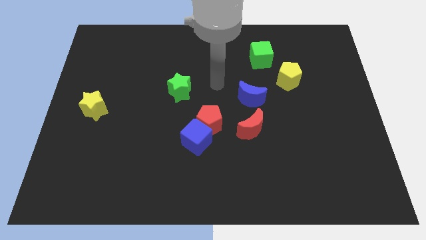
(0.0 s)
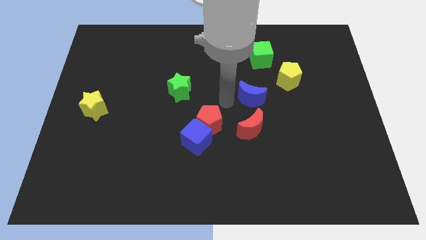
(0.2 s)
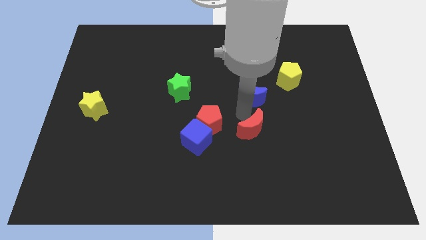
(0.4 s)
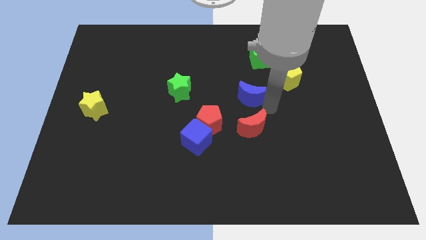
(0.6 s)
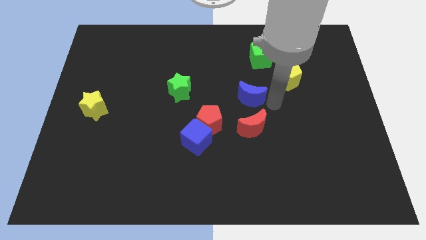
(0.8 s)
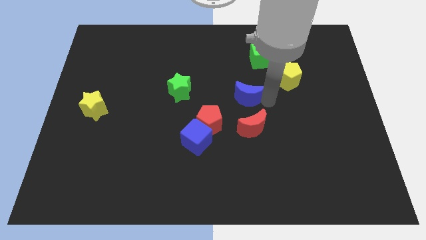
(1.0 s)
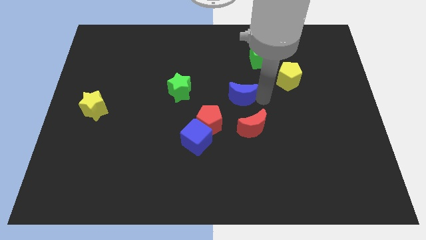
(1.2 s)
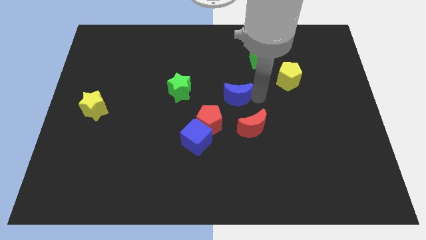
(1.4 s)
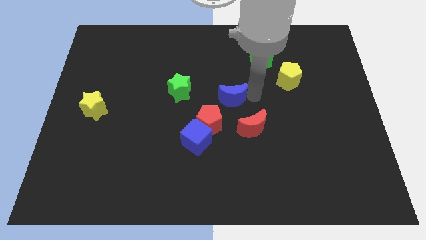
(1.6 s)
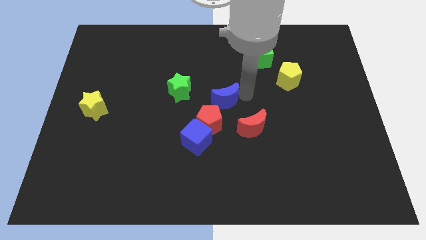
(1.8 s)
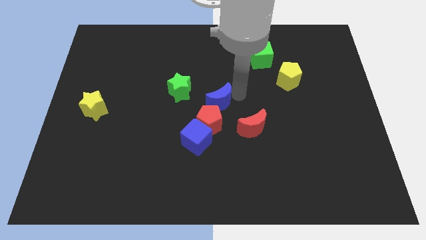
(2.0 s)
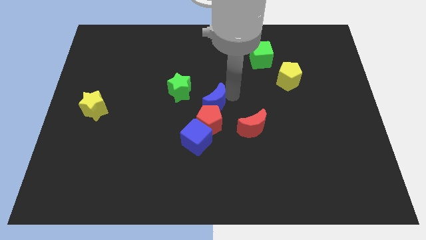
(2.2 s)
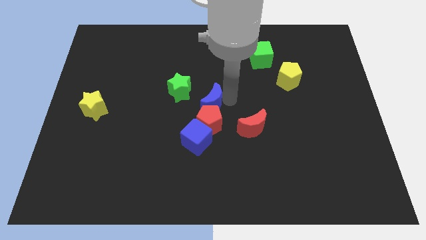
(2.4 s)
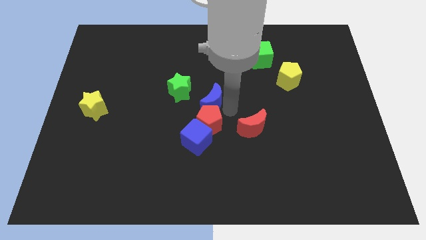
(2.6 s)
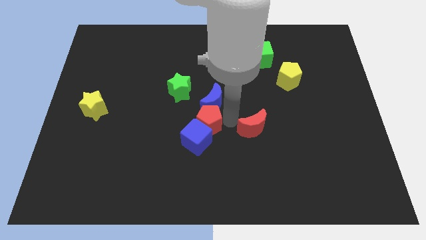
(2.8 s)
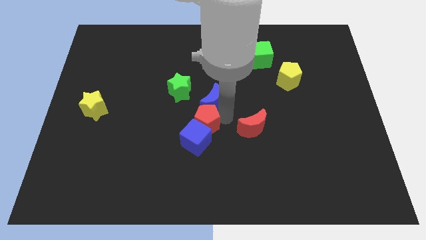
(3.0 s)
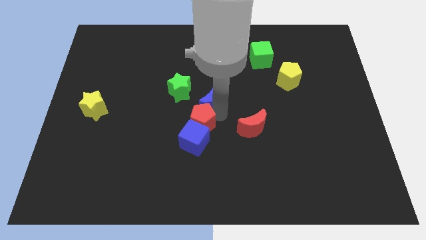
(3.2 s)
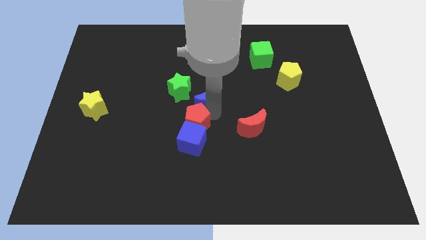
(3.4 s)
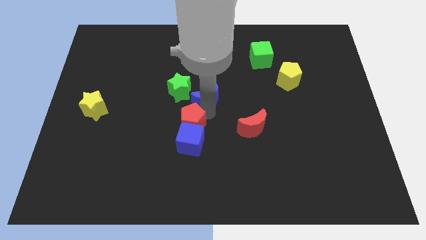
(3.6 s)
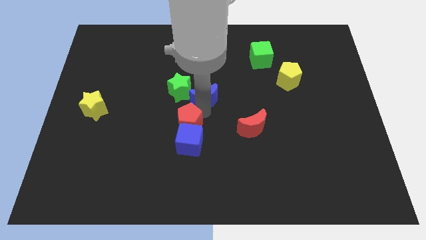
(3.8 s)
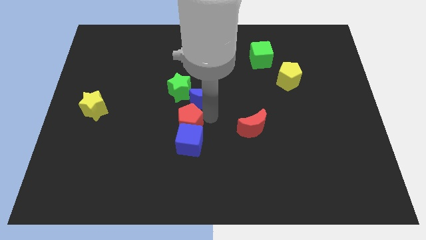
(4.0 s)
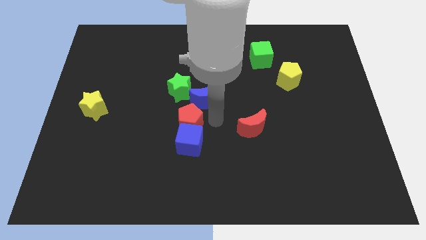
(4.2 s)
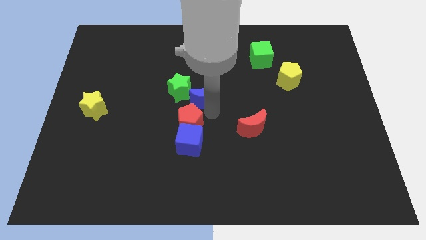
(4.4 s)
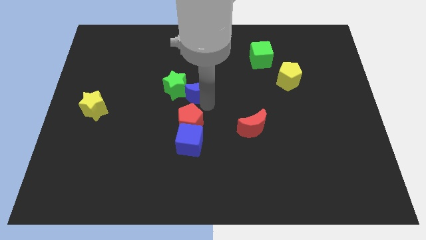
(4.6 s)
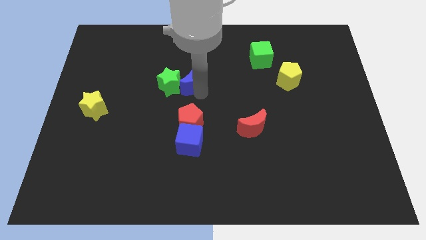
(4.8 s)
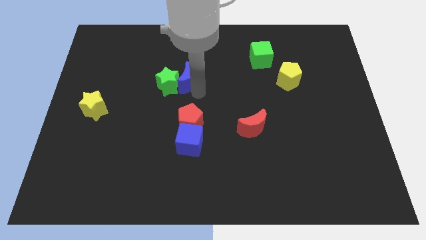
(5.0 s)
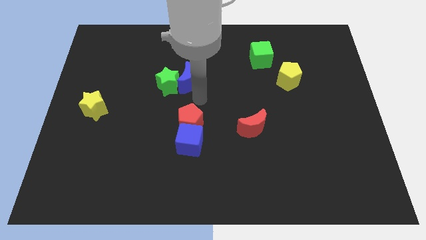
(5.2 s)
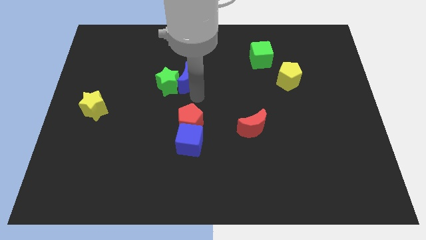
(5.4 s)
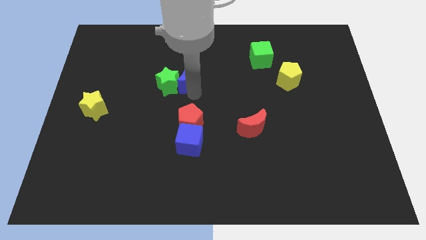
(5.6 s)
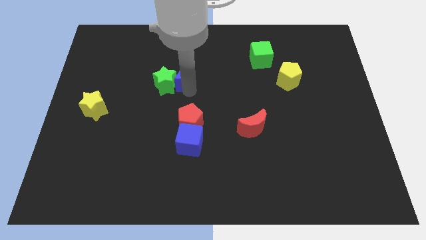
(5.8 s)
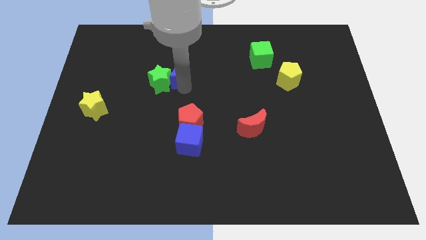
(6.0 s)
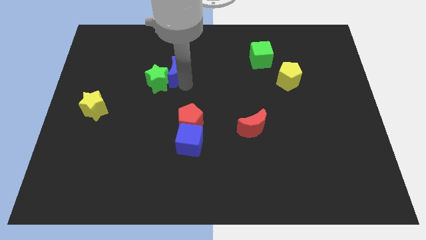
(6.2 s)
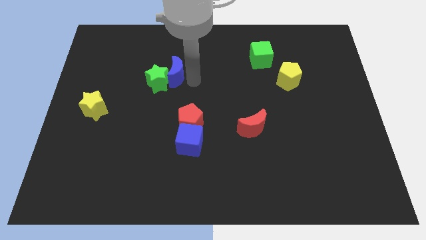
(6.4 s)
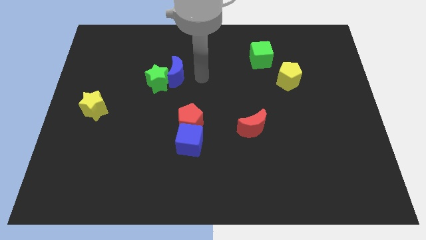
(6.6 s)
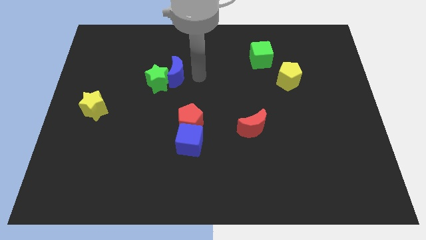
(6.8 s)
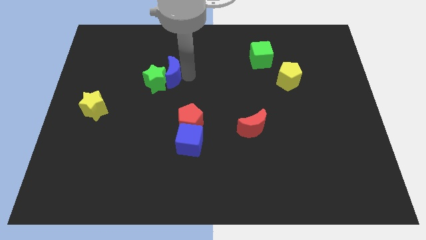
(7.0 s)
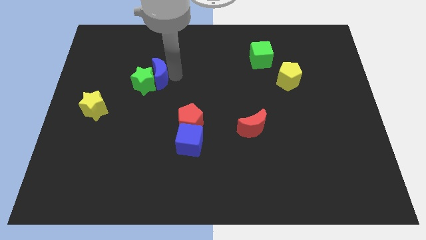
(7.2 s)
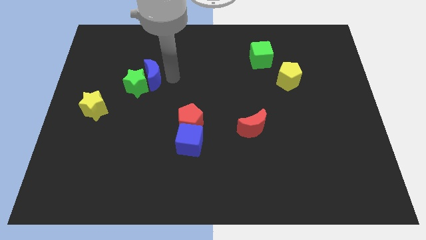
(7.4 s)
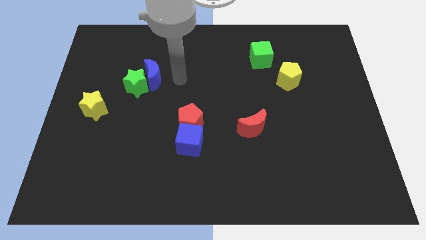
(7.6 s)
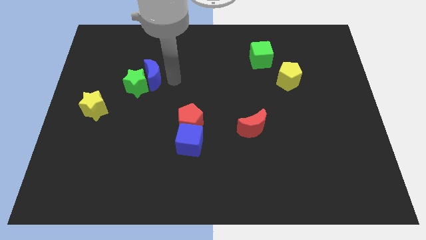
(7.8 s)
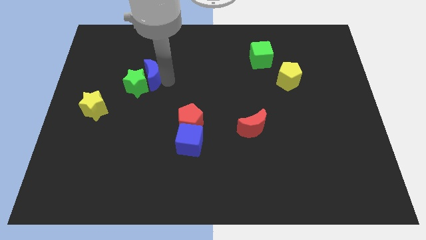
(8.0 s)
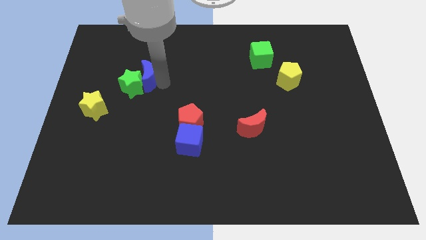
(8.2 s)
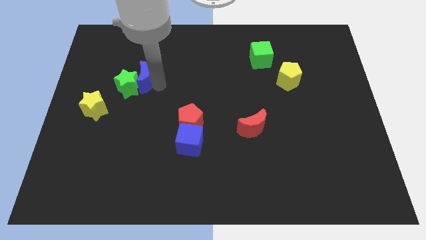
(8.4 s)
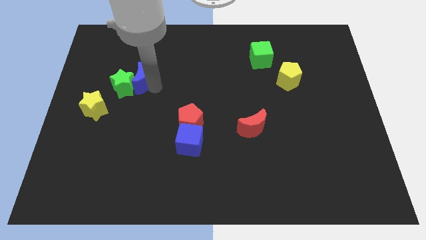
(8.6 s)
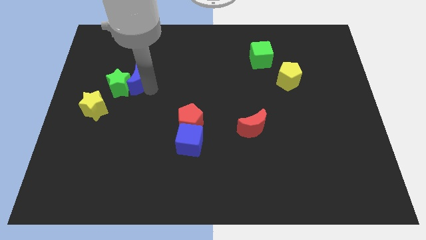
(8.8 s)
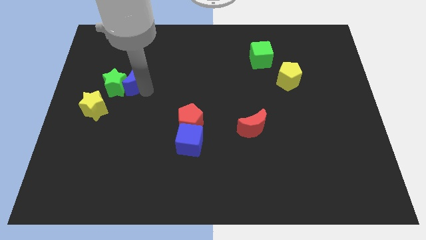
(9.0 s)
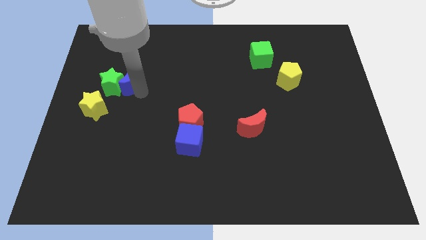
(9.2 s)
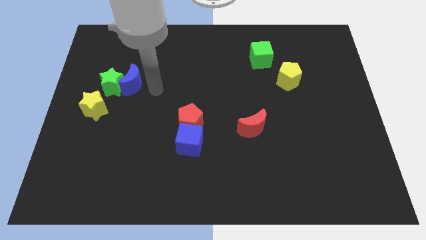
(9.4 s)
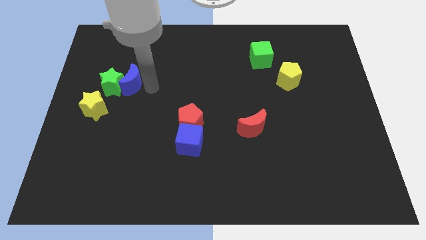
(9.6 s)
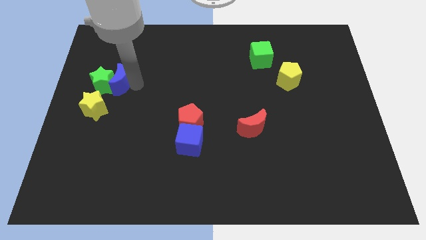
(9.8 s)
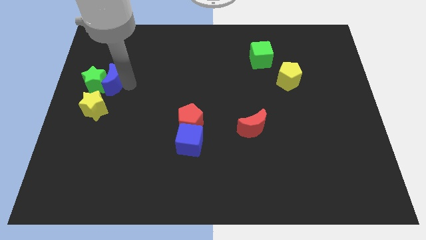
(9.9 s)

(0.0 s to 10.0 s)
push the blue moon to the top of the yellow star

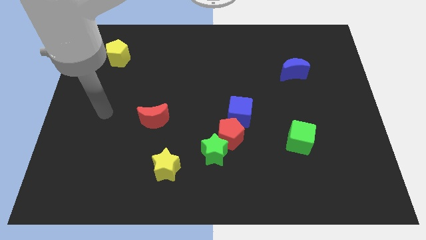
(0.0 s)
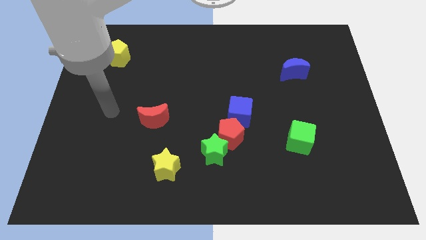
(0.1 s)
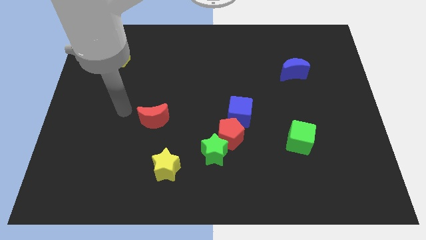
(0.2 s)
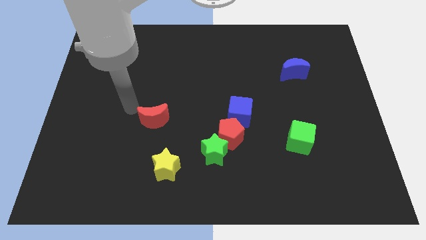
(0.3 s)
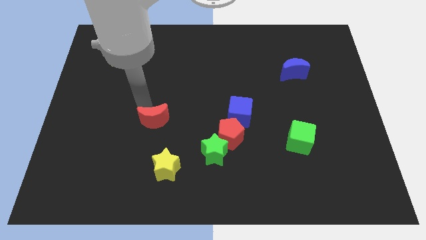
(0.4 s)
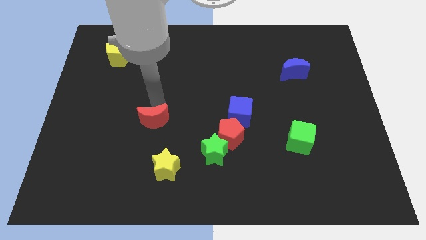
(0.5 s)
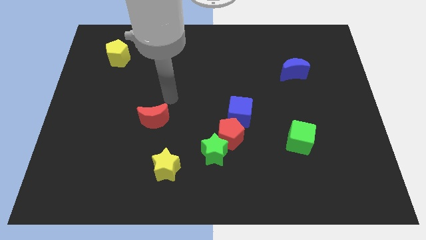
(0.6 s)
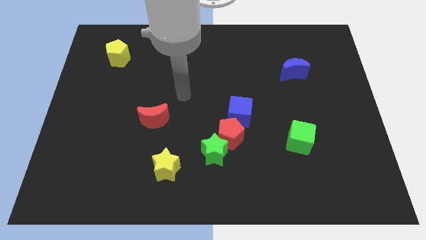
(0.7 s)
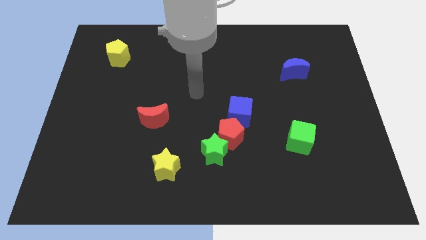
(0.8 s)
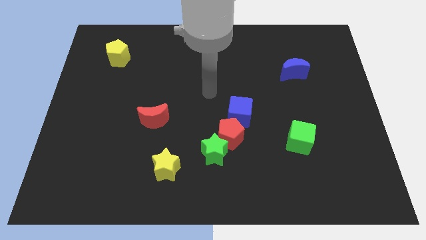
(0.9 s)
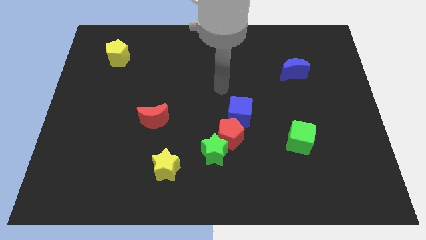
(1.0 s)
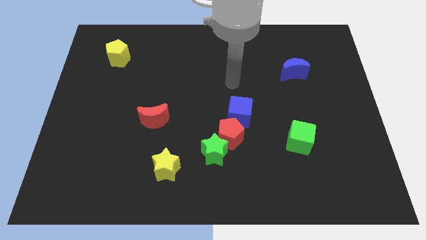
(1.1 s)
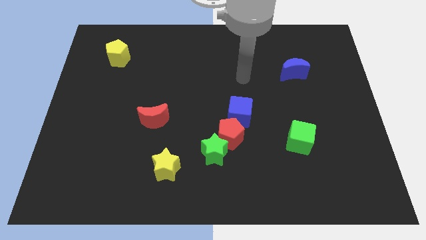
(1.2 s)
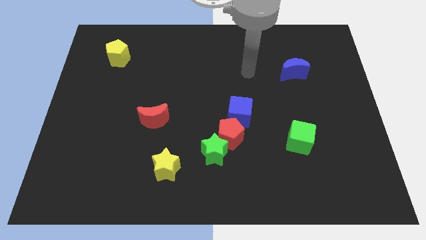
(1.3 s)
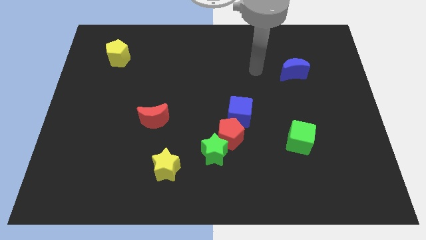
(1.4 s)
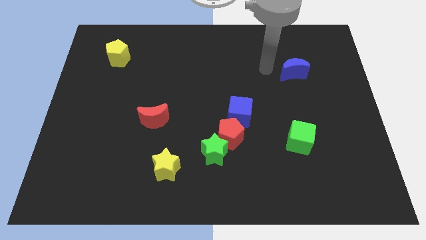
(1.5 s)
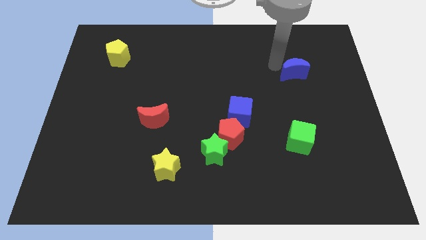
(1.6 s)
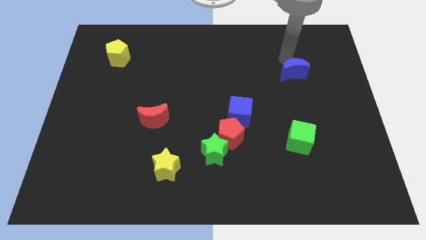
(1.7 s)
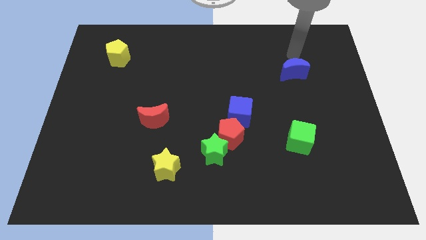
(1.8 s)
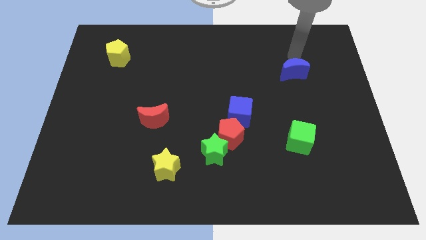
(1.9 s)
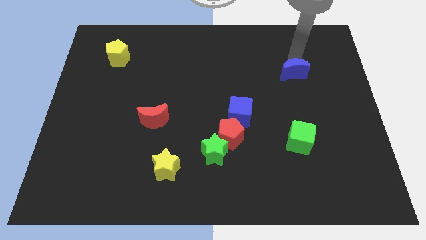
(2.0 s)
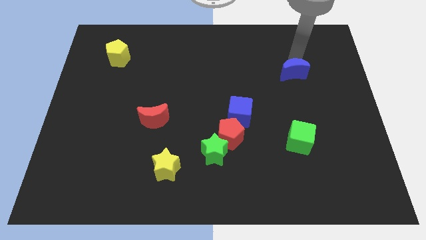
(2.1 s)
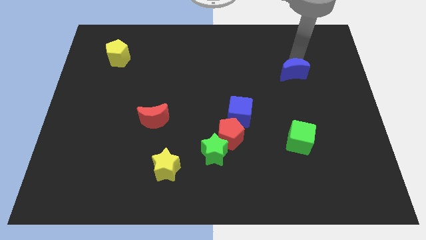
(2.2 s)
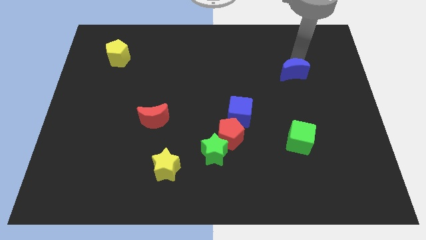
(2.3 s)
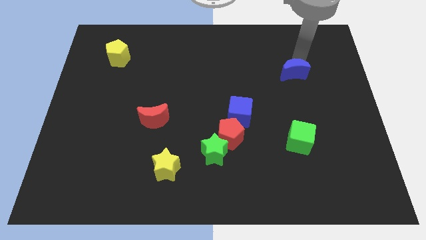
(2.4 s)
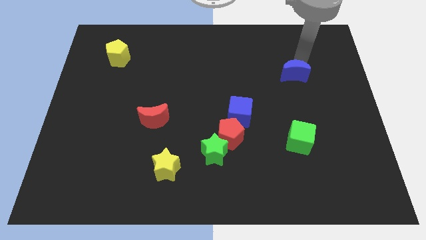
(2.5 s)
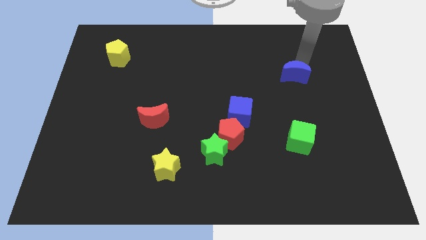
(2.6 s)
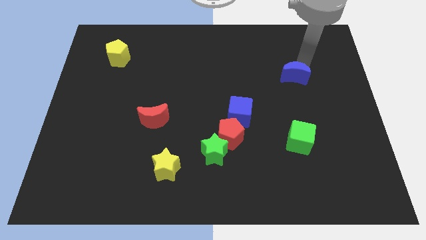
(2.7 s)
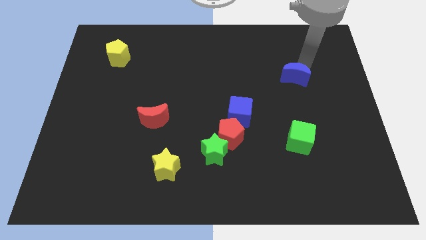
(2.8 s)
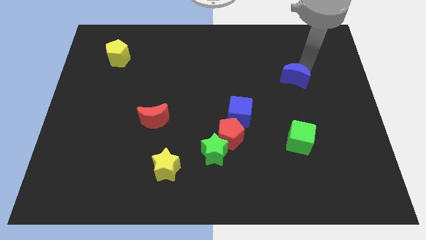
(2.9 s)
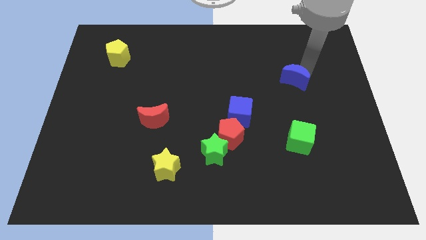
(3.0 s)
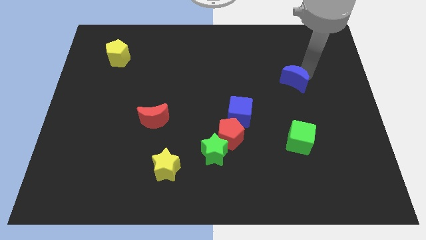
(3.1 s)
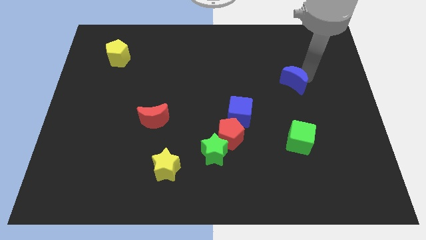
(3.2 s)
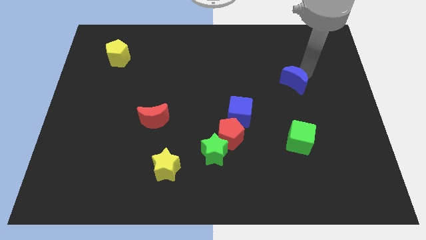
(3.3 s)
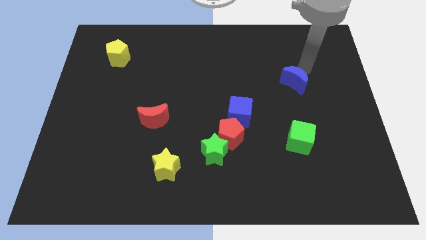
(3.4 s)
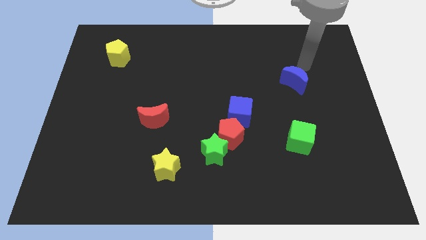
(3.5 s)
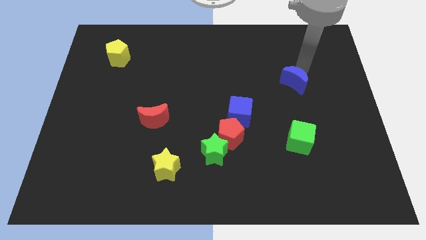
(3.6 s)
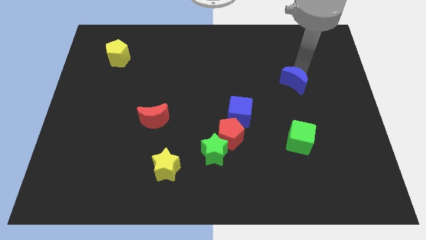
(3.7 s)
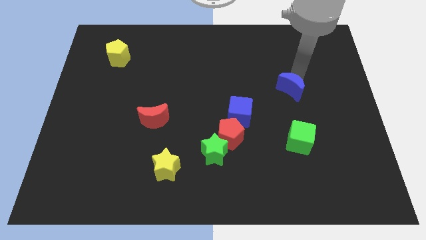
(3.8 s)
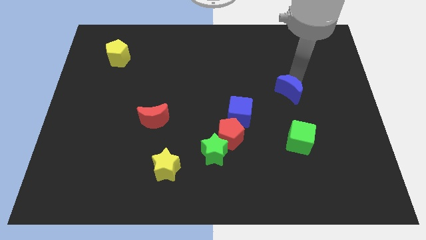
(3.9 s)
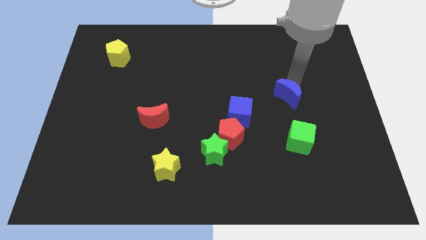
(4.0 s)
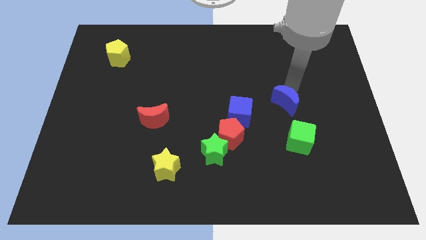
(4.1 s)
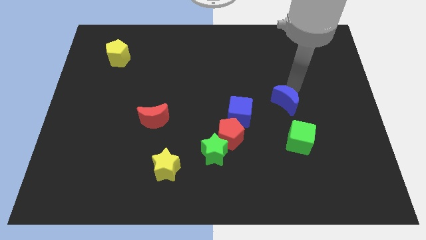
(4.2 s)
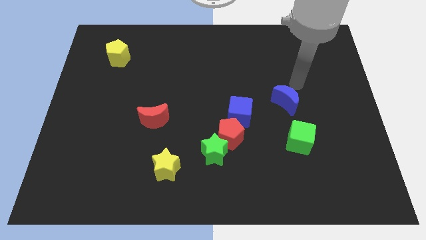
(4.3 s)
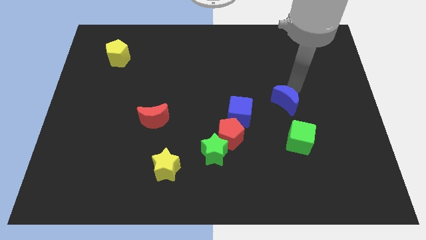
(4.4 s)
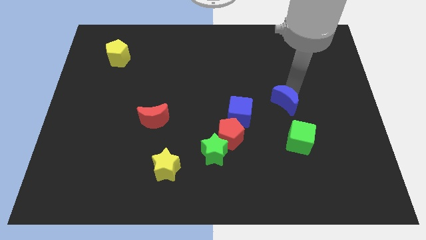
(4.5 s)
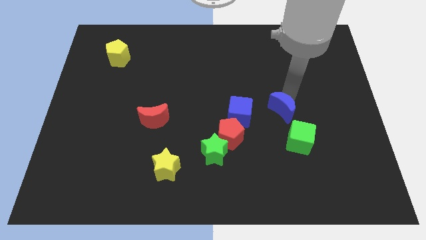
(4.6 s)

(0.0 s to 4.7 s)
move the blue moon to the top left side of the green cube
